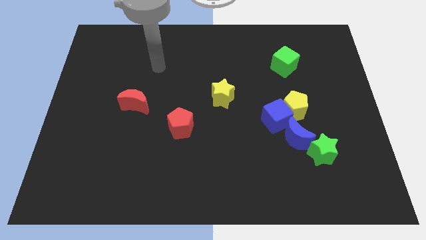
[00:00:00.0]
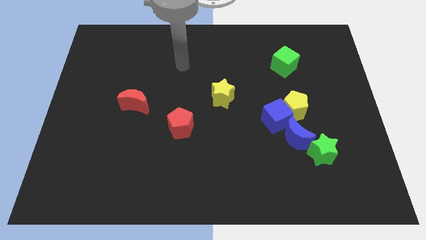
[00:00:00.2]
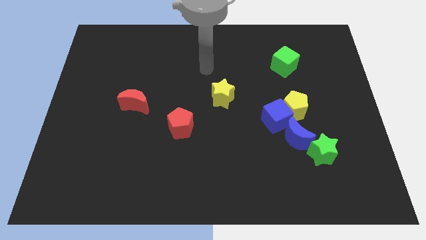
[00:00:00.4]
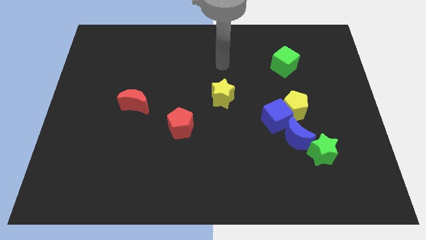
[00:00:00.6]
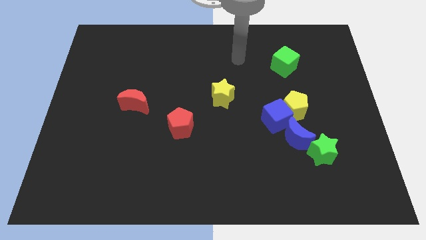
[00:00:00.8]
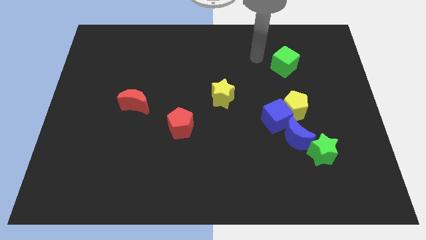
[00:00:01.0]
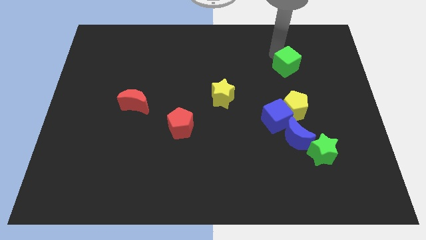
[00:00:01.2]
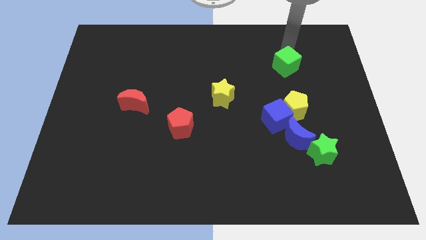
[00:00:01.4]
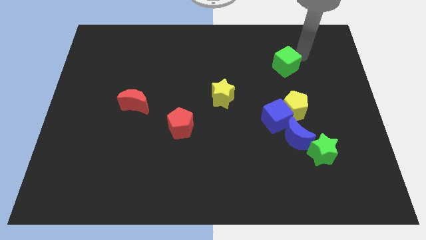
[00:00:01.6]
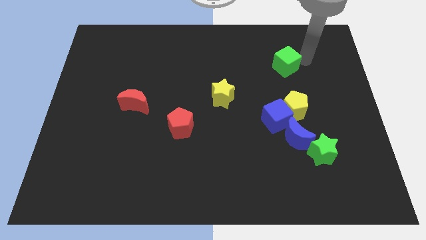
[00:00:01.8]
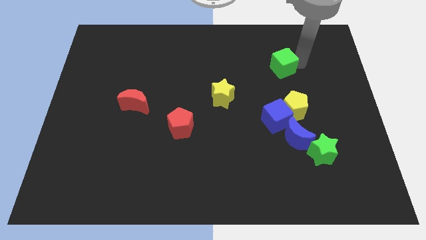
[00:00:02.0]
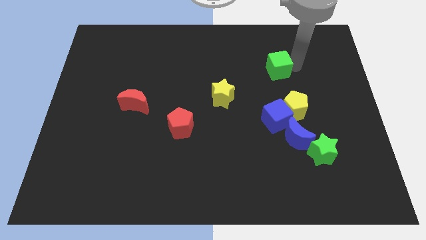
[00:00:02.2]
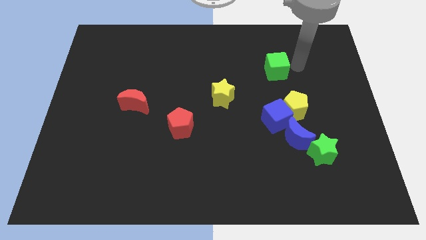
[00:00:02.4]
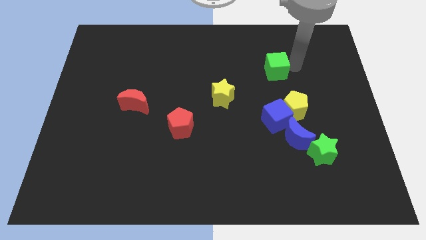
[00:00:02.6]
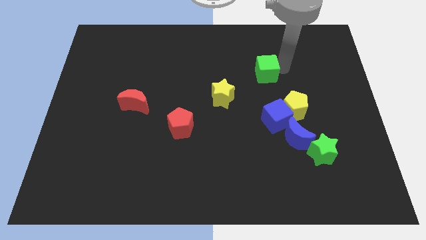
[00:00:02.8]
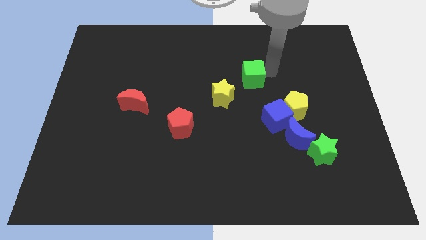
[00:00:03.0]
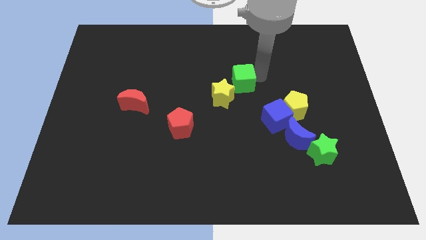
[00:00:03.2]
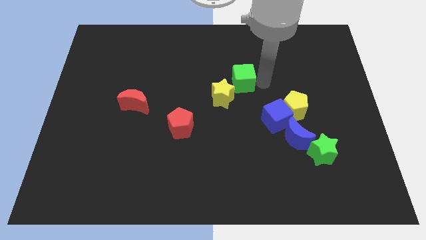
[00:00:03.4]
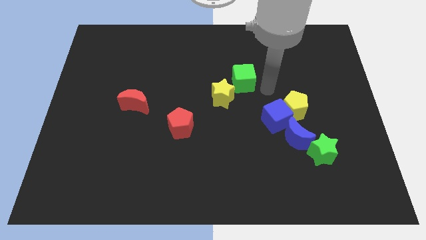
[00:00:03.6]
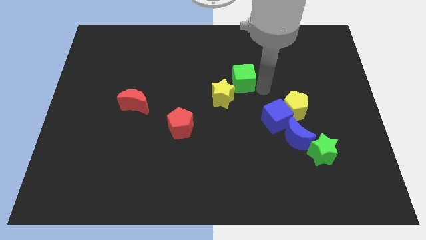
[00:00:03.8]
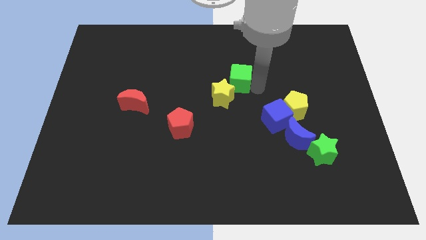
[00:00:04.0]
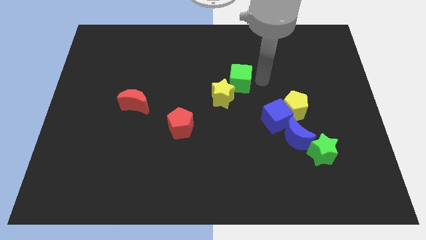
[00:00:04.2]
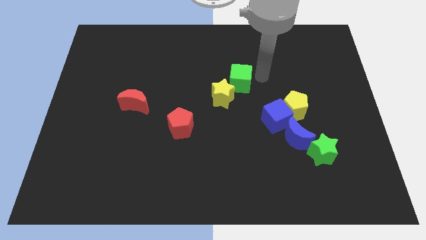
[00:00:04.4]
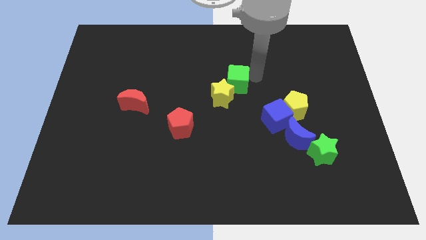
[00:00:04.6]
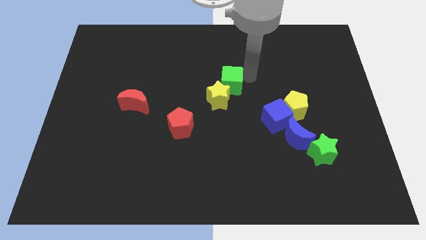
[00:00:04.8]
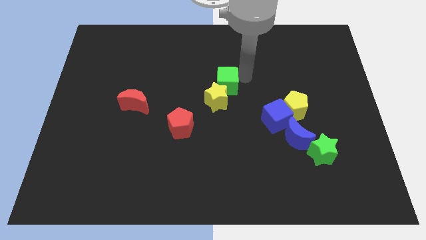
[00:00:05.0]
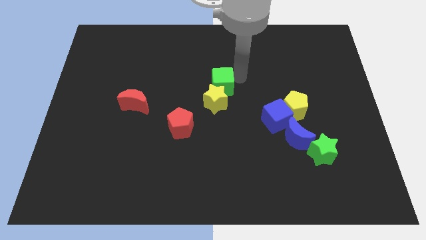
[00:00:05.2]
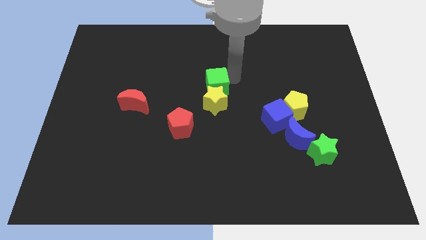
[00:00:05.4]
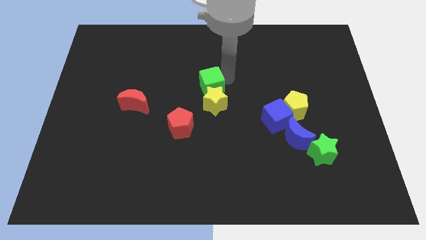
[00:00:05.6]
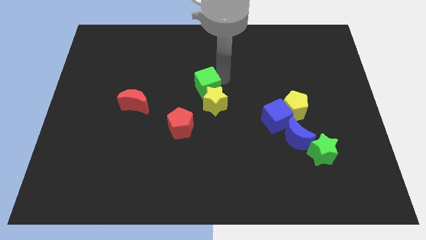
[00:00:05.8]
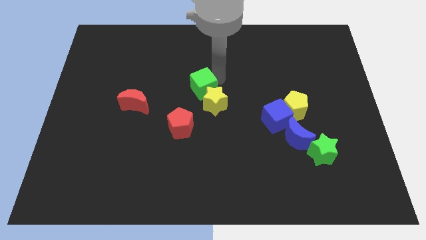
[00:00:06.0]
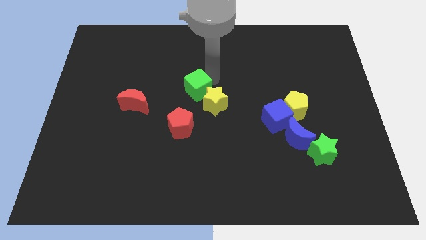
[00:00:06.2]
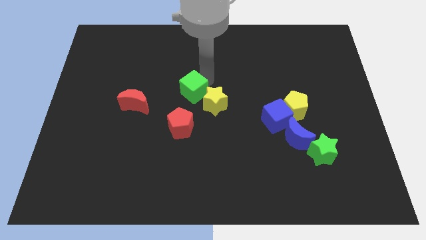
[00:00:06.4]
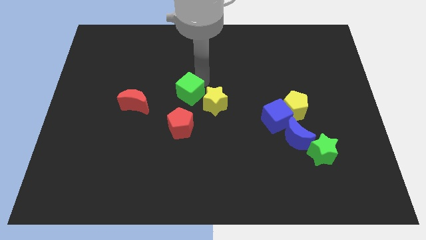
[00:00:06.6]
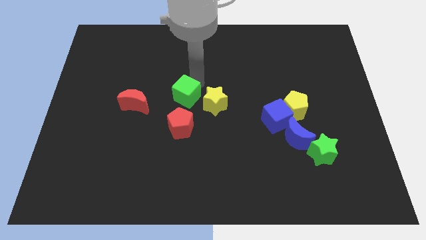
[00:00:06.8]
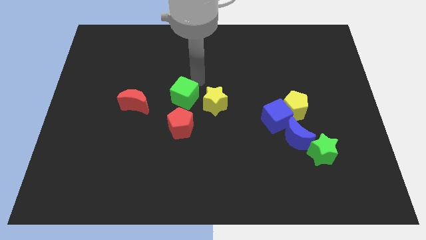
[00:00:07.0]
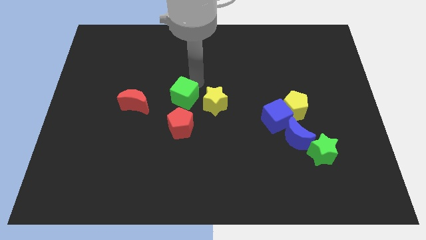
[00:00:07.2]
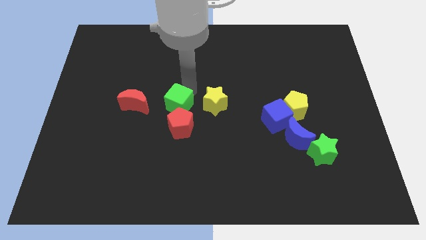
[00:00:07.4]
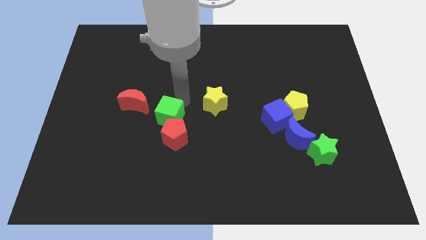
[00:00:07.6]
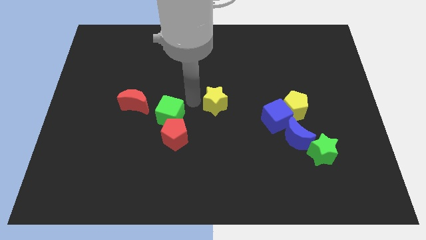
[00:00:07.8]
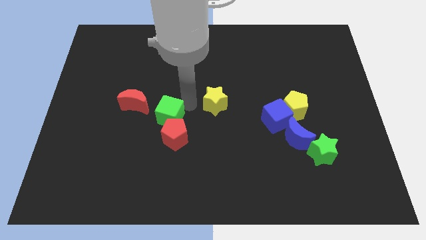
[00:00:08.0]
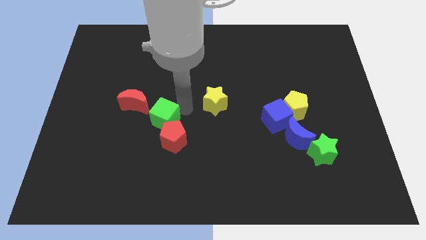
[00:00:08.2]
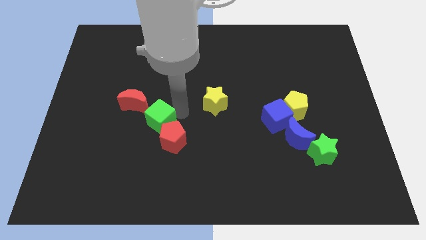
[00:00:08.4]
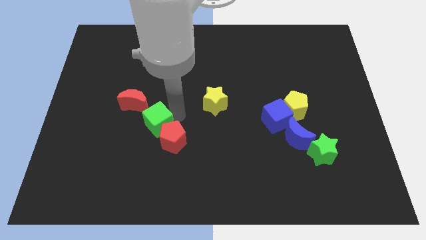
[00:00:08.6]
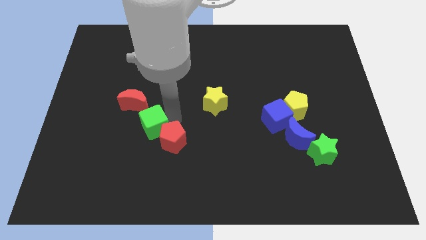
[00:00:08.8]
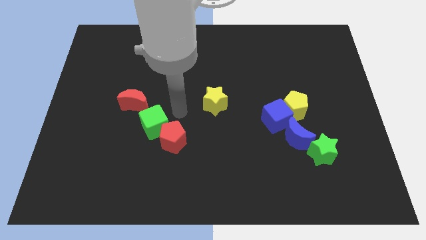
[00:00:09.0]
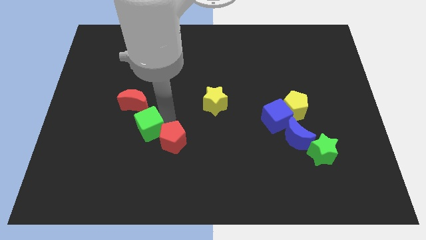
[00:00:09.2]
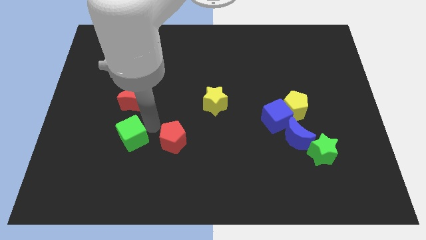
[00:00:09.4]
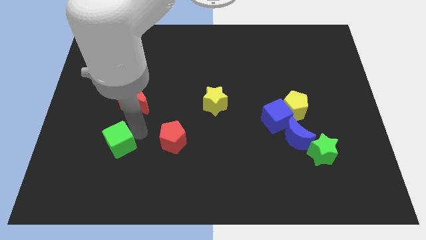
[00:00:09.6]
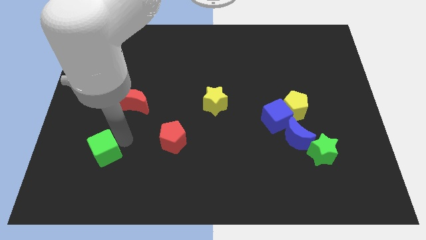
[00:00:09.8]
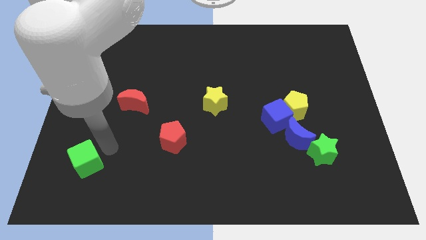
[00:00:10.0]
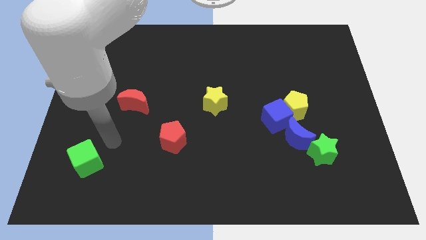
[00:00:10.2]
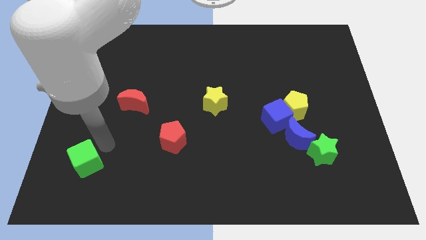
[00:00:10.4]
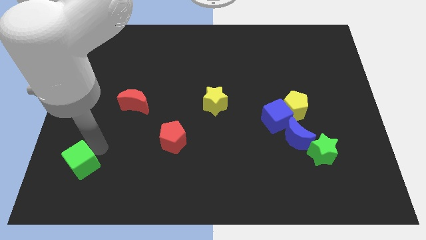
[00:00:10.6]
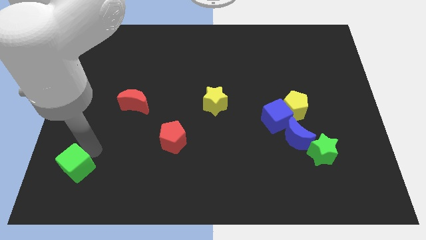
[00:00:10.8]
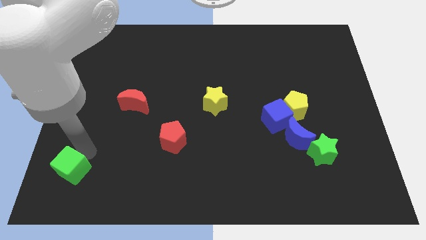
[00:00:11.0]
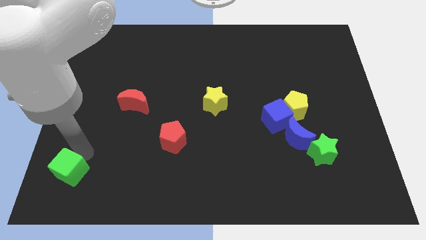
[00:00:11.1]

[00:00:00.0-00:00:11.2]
move the green cube to the bottom left of the board

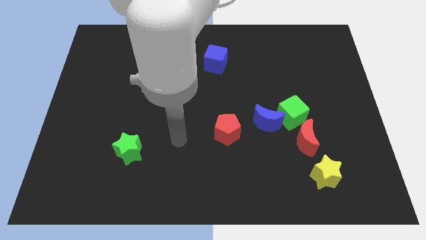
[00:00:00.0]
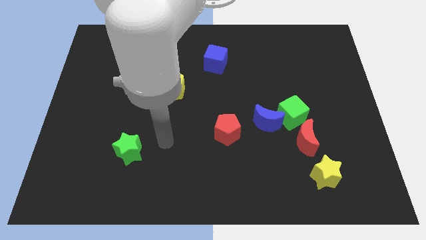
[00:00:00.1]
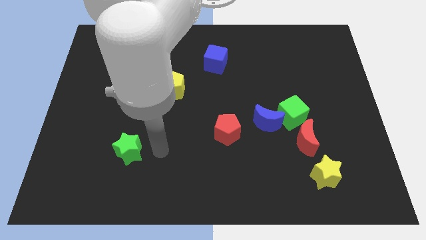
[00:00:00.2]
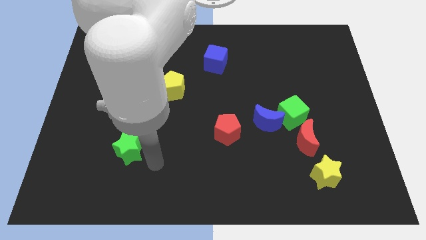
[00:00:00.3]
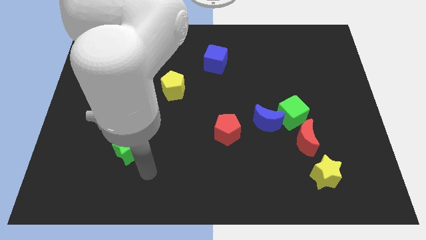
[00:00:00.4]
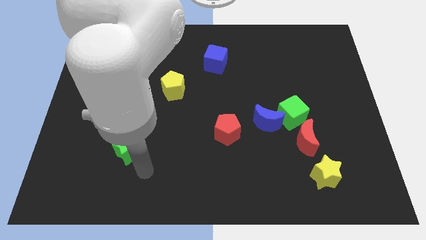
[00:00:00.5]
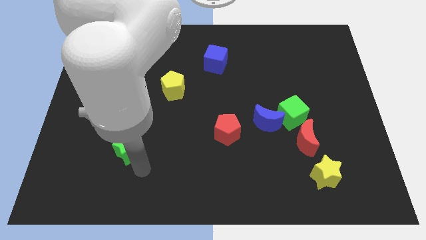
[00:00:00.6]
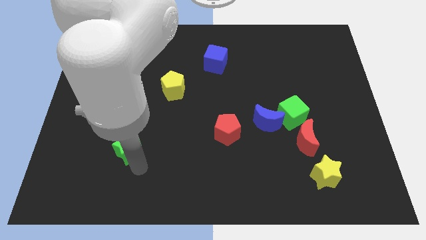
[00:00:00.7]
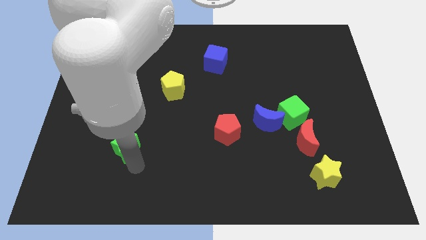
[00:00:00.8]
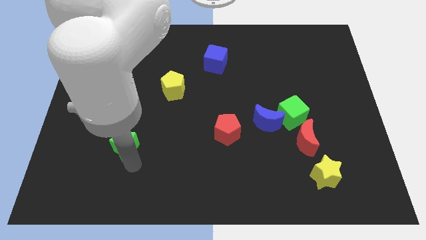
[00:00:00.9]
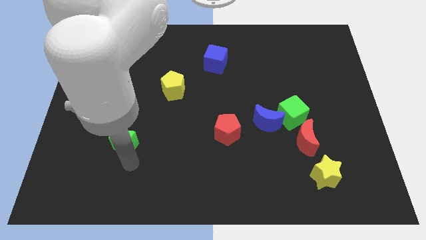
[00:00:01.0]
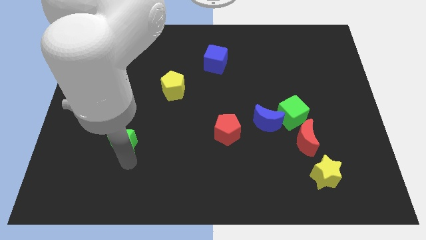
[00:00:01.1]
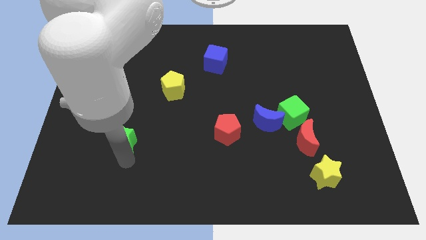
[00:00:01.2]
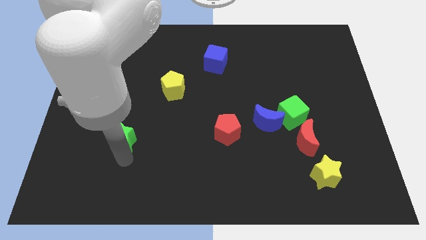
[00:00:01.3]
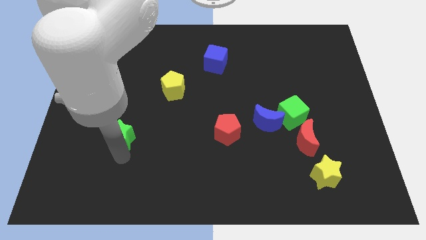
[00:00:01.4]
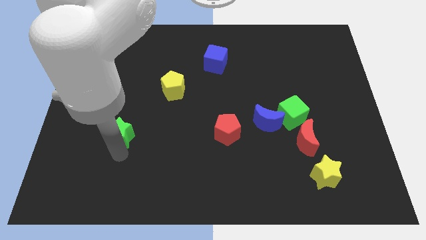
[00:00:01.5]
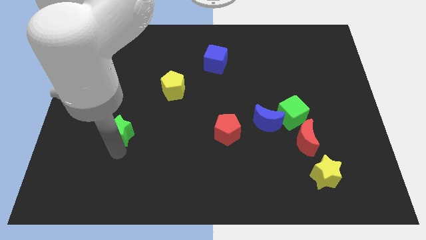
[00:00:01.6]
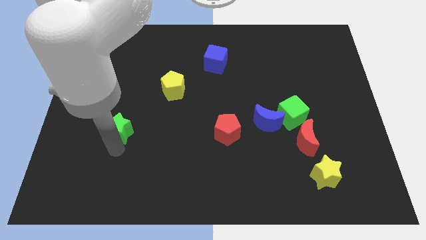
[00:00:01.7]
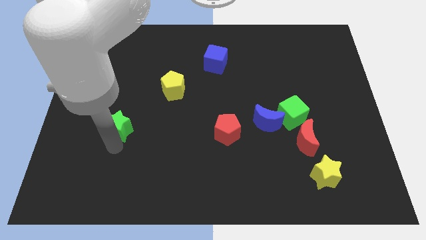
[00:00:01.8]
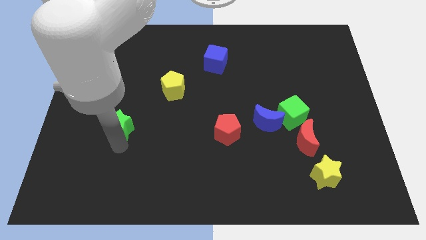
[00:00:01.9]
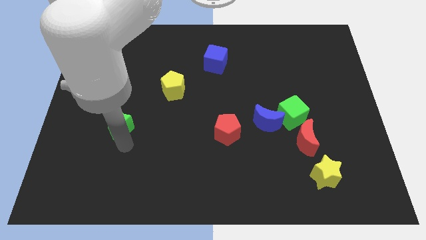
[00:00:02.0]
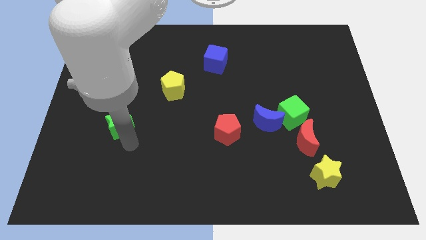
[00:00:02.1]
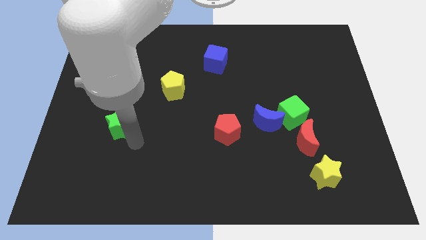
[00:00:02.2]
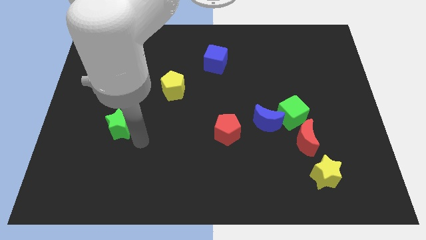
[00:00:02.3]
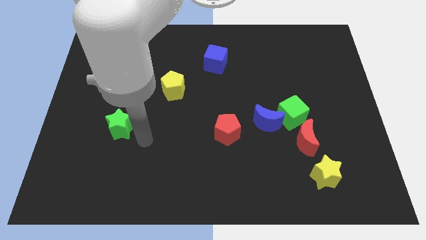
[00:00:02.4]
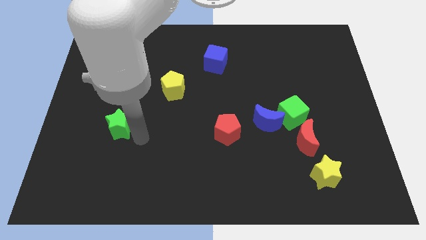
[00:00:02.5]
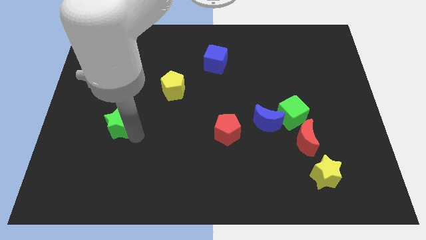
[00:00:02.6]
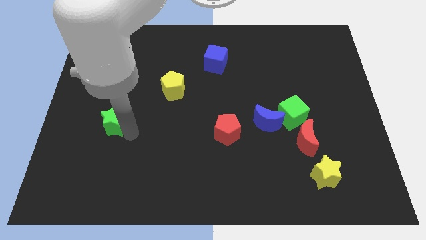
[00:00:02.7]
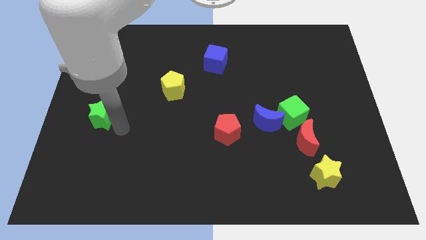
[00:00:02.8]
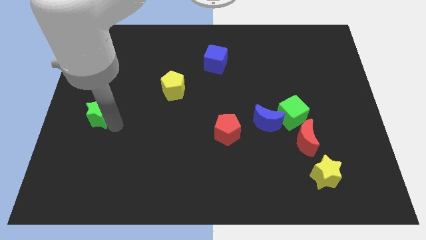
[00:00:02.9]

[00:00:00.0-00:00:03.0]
move the green star to the center left
